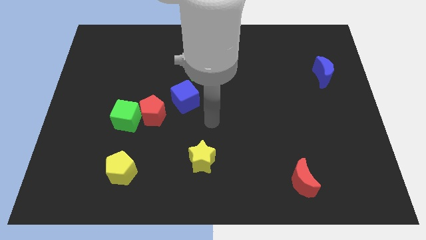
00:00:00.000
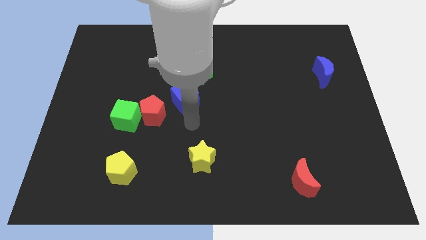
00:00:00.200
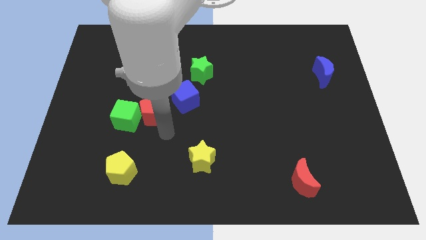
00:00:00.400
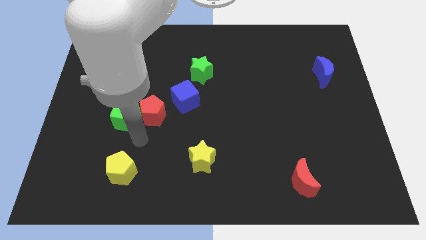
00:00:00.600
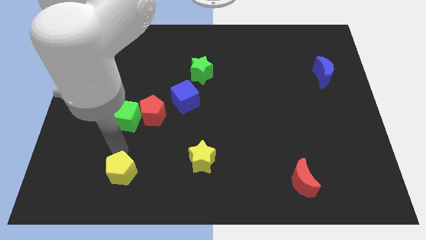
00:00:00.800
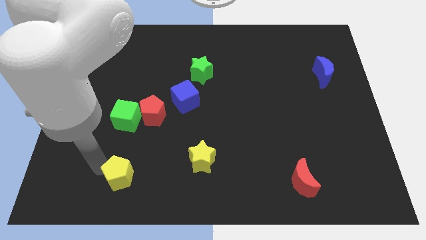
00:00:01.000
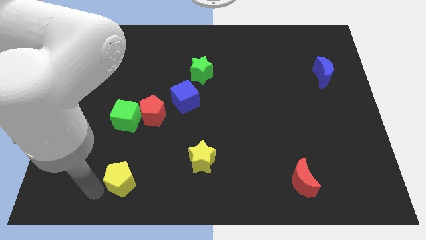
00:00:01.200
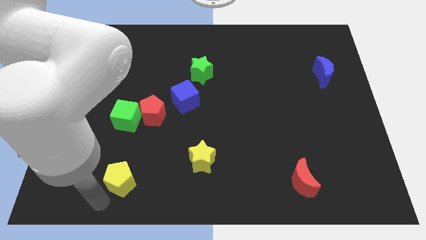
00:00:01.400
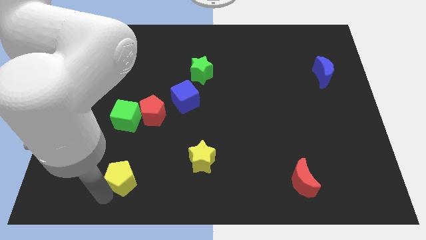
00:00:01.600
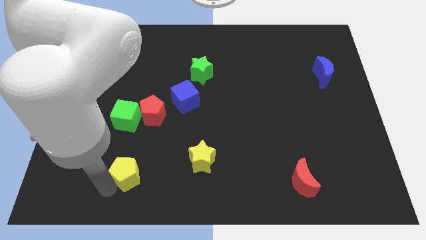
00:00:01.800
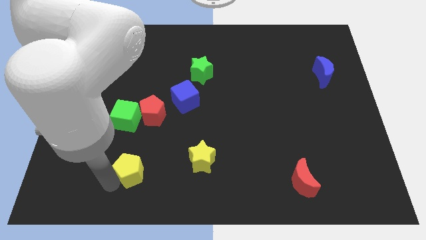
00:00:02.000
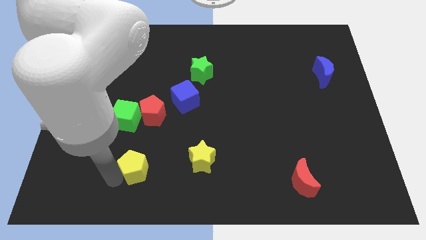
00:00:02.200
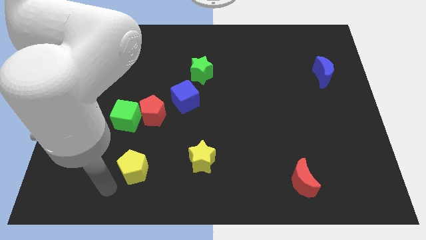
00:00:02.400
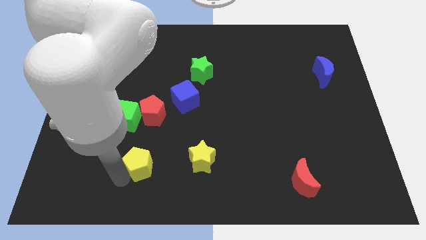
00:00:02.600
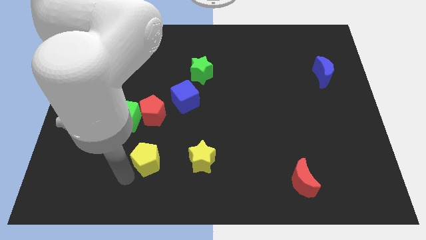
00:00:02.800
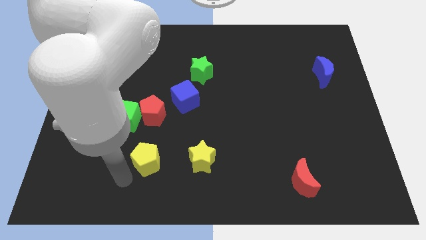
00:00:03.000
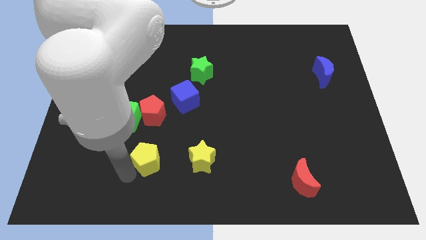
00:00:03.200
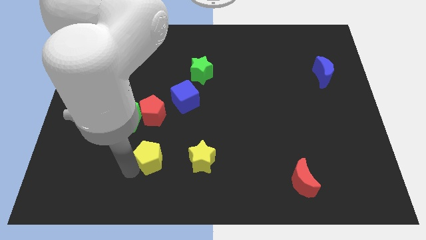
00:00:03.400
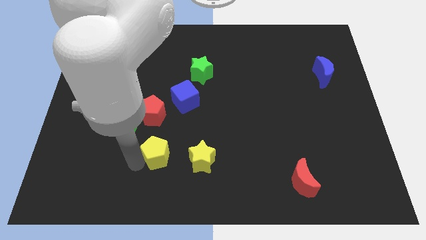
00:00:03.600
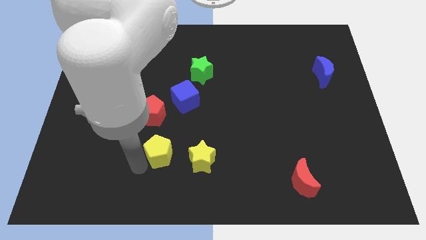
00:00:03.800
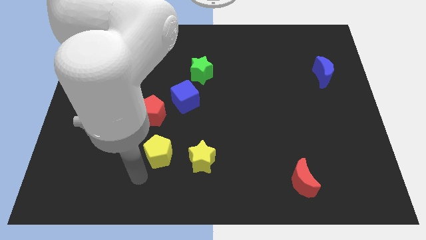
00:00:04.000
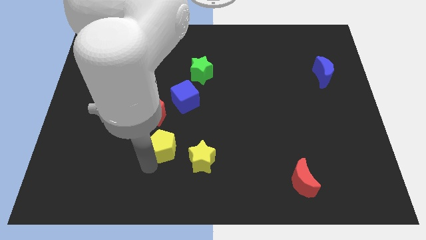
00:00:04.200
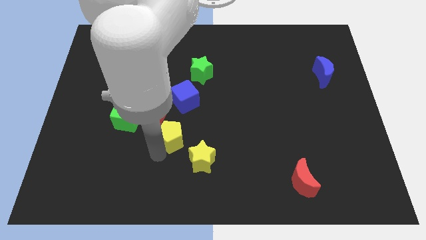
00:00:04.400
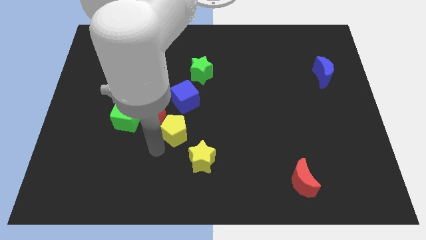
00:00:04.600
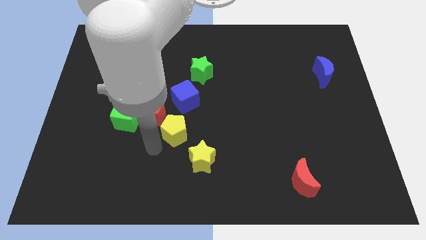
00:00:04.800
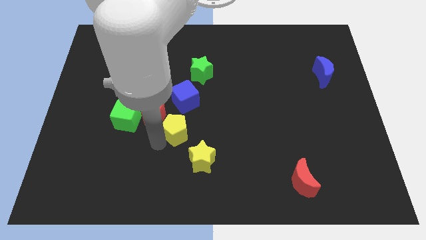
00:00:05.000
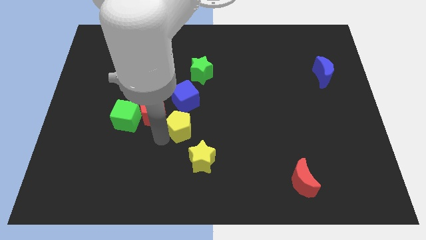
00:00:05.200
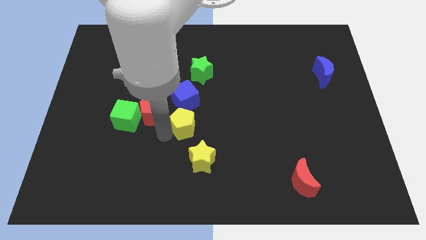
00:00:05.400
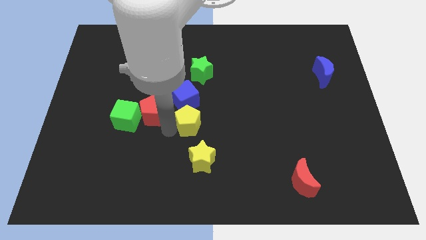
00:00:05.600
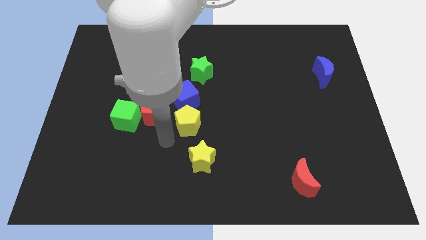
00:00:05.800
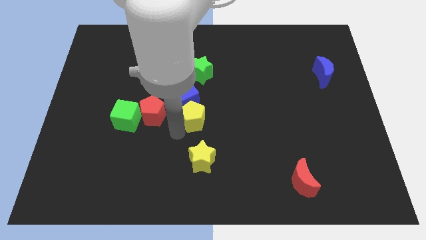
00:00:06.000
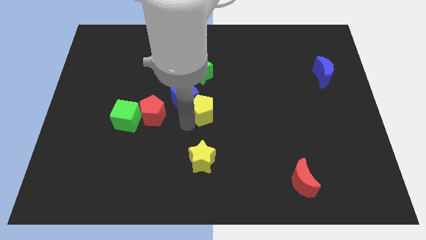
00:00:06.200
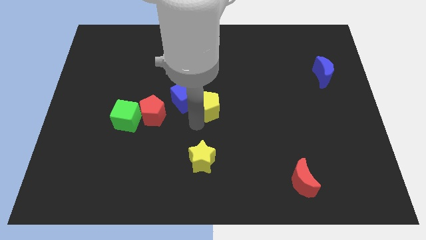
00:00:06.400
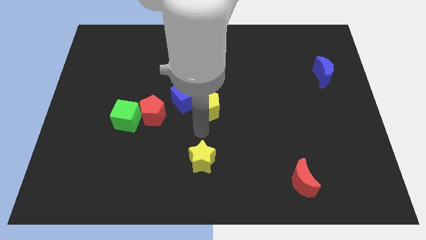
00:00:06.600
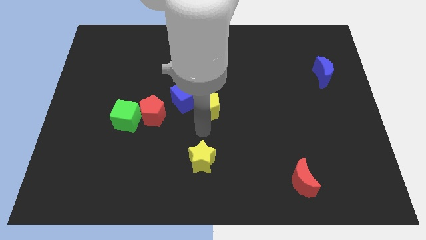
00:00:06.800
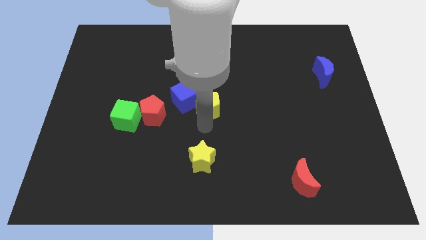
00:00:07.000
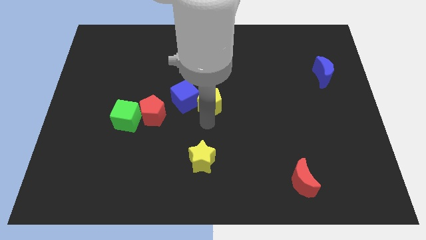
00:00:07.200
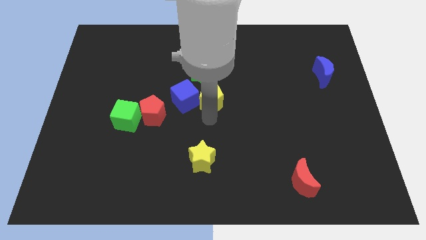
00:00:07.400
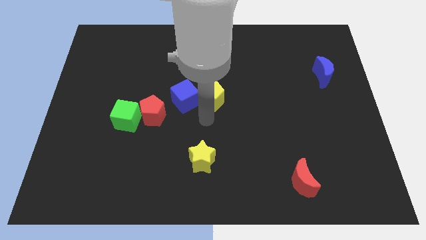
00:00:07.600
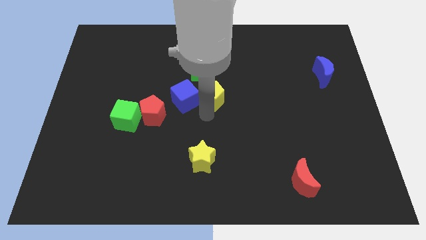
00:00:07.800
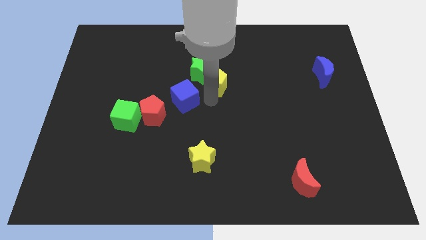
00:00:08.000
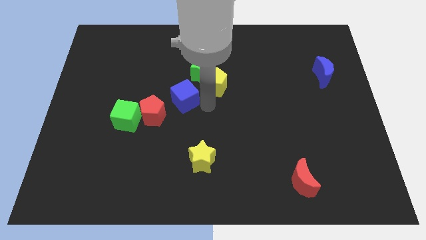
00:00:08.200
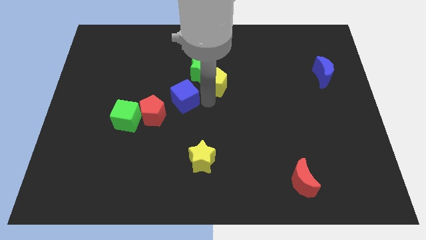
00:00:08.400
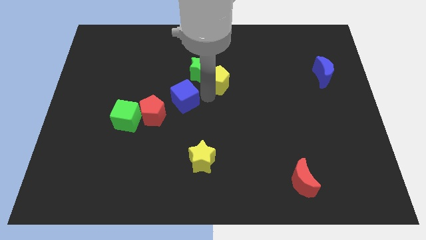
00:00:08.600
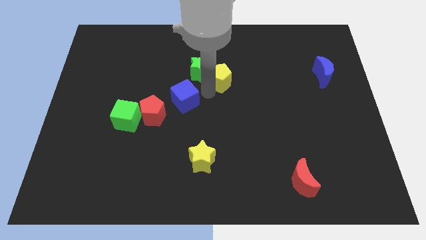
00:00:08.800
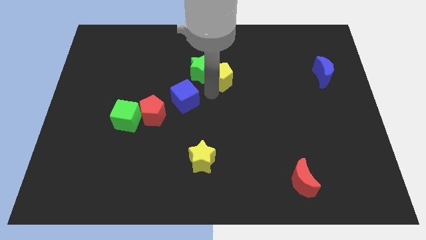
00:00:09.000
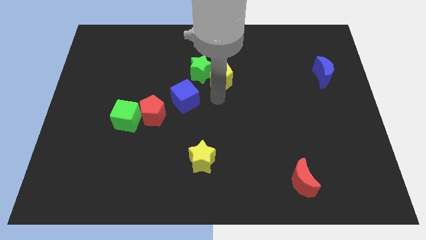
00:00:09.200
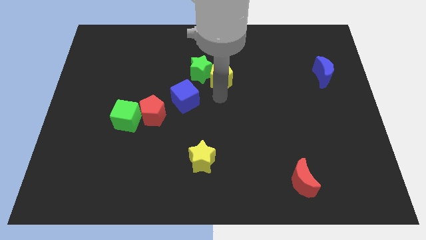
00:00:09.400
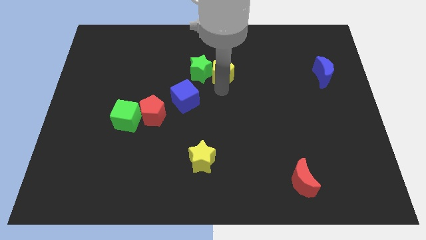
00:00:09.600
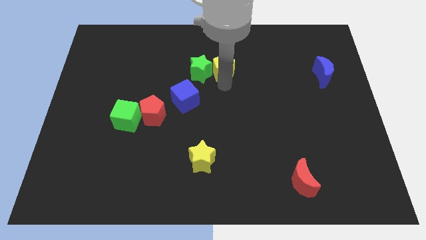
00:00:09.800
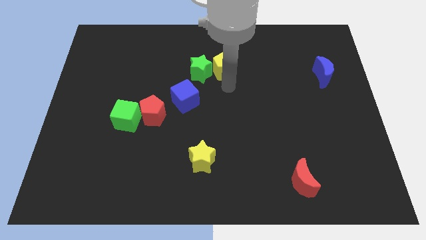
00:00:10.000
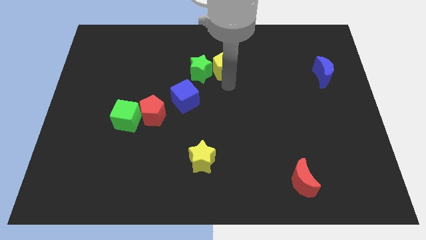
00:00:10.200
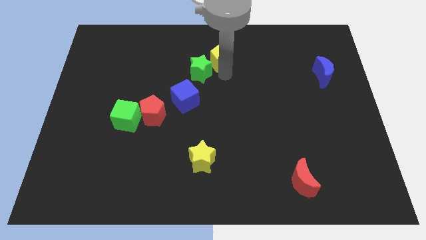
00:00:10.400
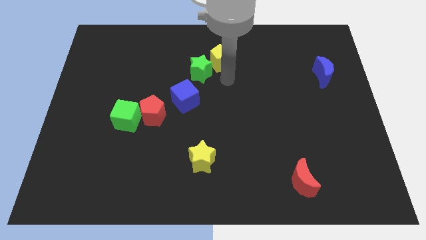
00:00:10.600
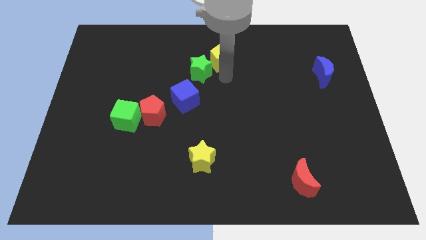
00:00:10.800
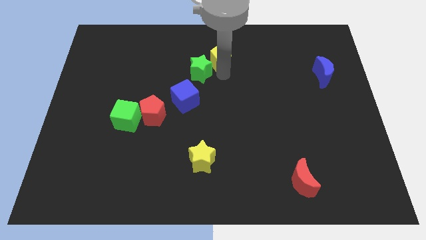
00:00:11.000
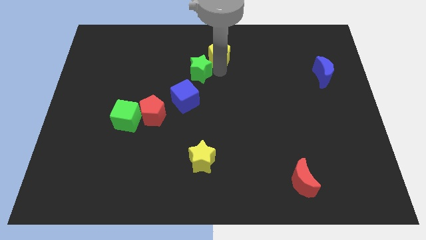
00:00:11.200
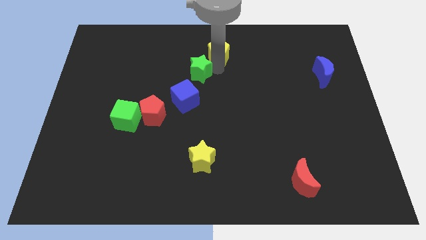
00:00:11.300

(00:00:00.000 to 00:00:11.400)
push the yellow pentagon to the towards your base
